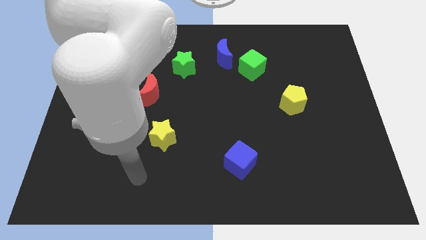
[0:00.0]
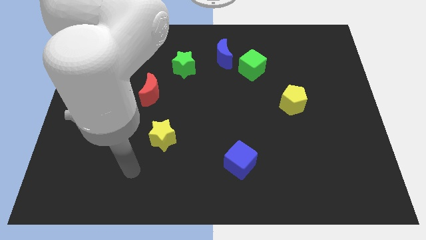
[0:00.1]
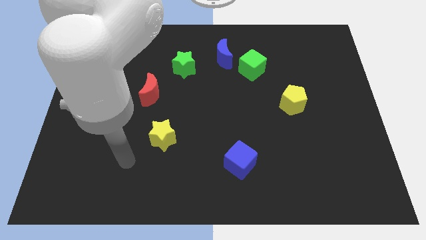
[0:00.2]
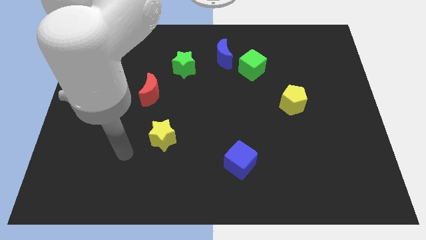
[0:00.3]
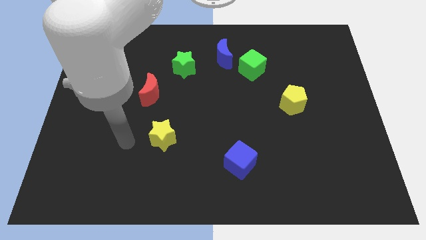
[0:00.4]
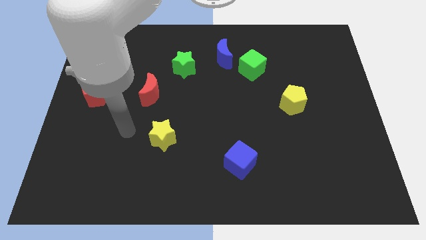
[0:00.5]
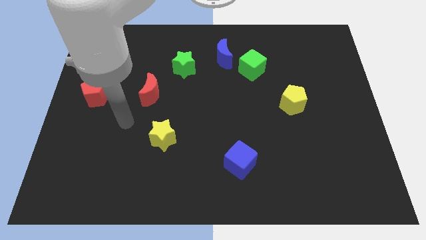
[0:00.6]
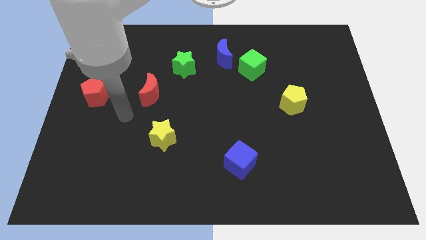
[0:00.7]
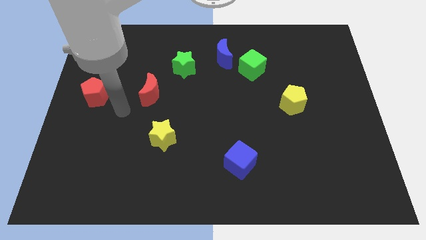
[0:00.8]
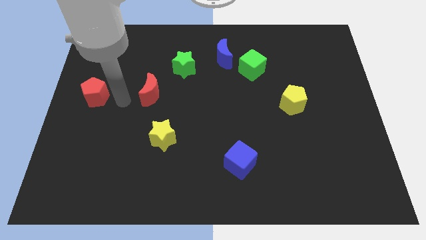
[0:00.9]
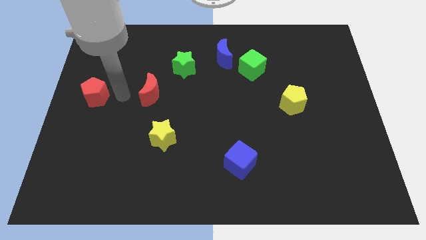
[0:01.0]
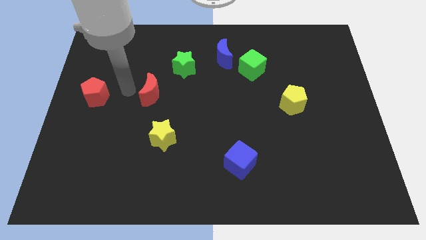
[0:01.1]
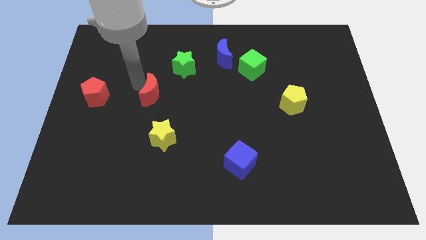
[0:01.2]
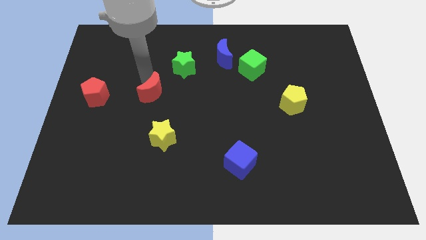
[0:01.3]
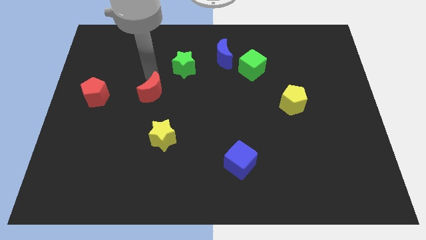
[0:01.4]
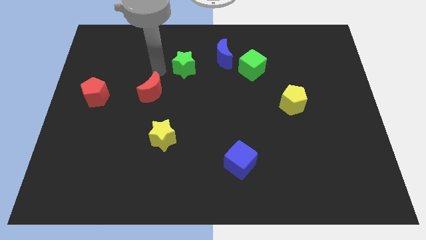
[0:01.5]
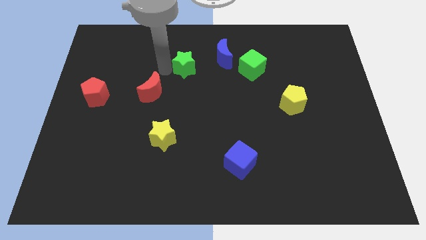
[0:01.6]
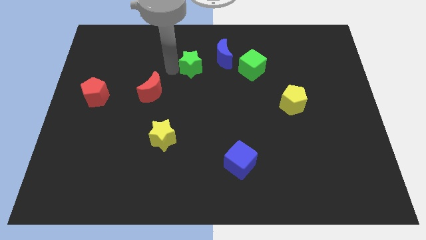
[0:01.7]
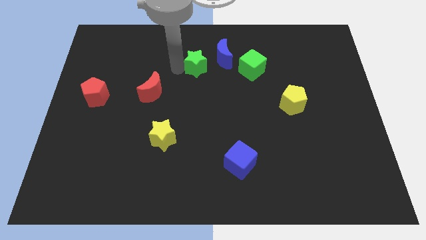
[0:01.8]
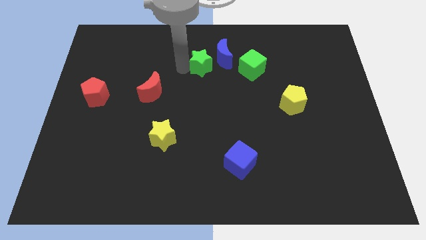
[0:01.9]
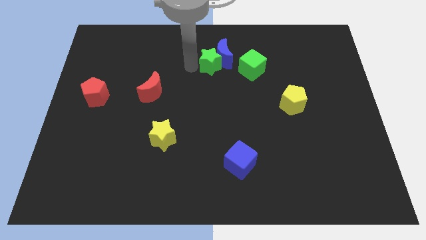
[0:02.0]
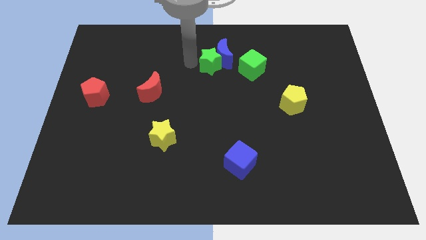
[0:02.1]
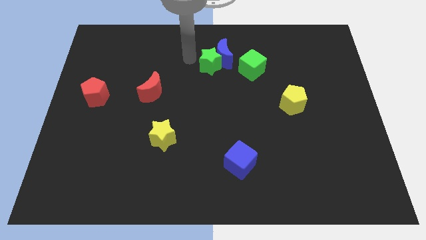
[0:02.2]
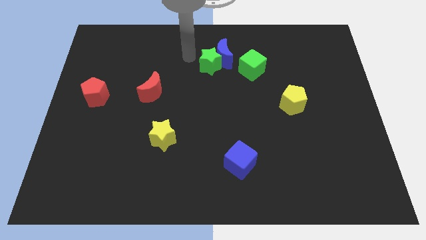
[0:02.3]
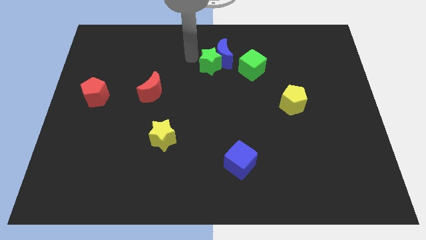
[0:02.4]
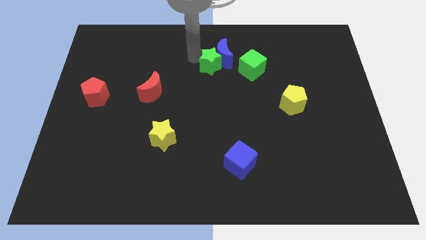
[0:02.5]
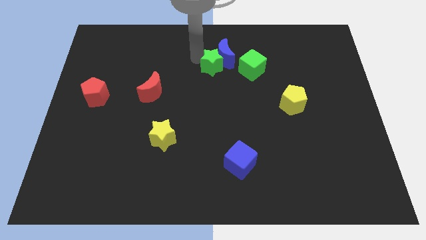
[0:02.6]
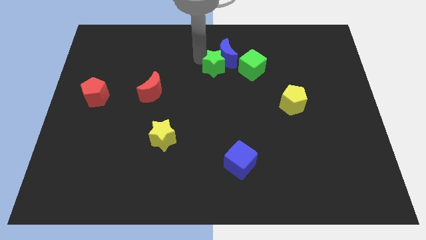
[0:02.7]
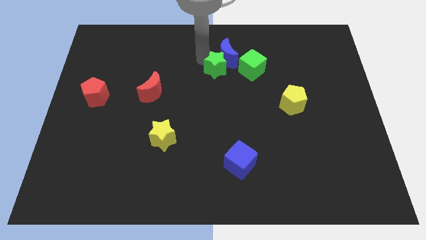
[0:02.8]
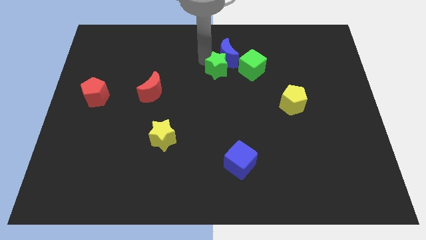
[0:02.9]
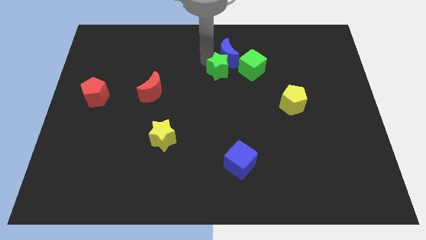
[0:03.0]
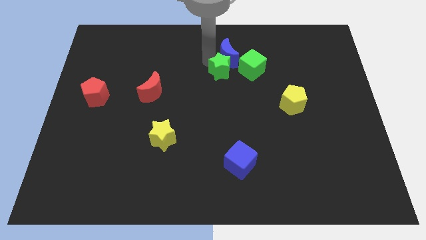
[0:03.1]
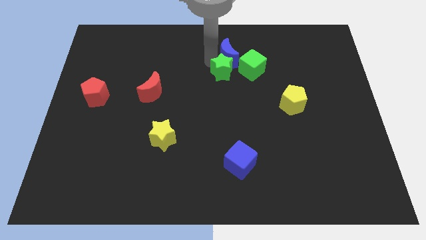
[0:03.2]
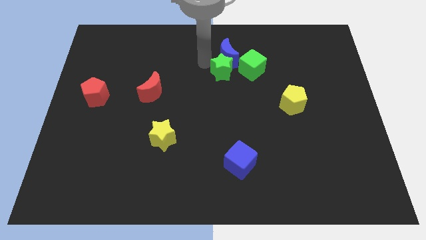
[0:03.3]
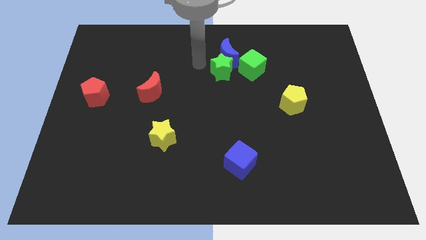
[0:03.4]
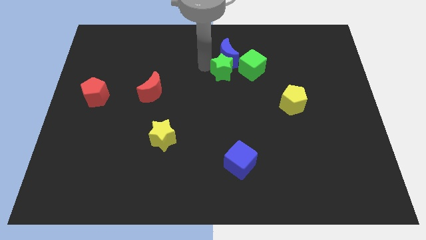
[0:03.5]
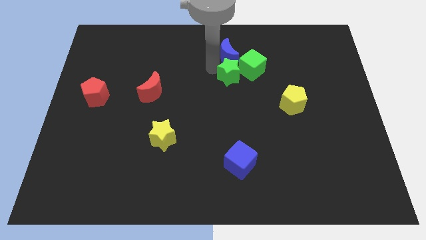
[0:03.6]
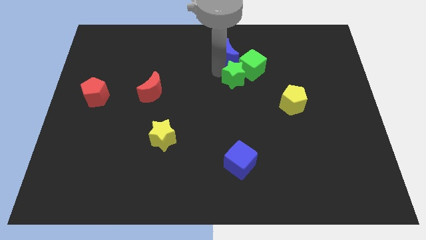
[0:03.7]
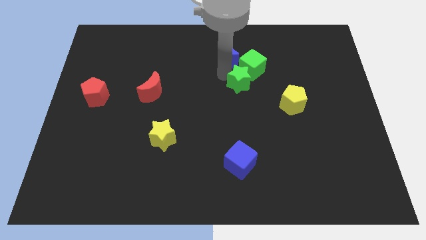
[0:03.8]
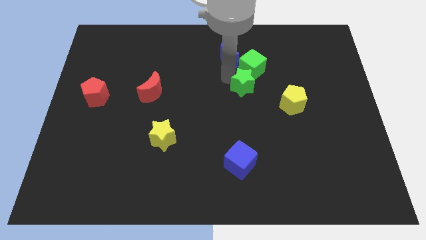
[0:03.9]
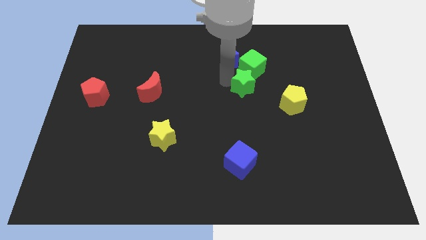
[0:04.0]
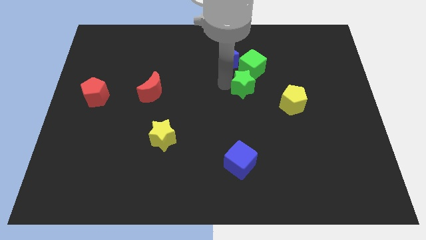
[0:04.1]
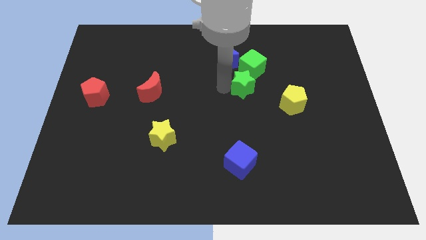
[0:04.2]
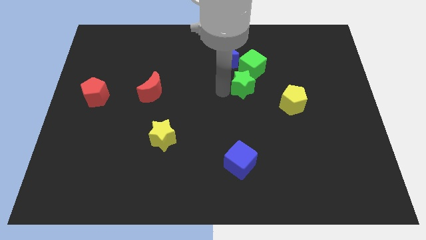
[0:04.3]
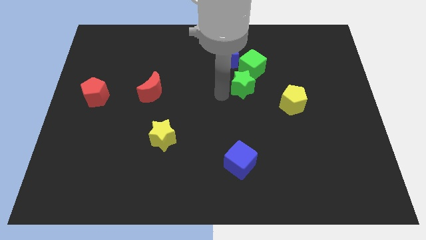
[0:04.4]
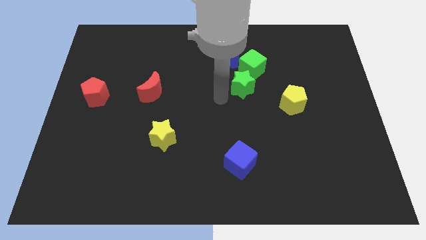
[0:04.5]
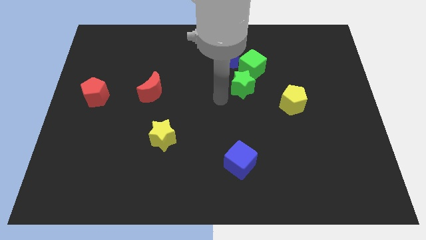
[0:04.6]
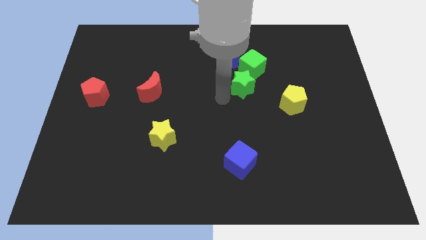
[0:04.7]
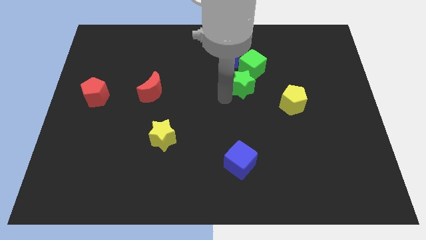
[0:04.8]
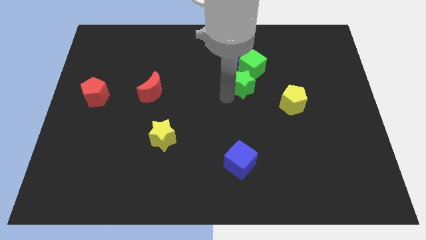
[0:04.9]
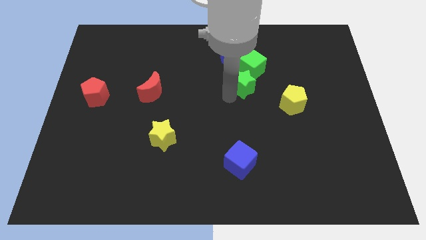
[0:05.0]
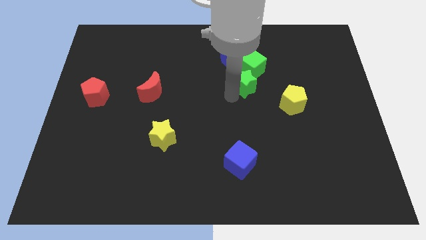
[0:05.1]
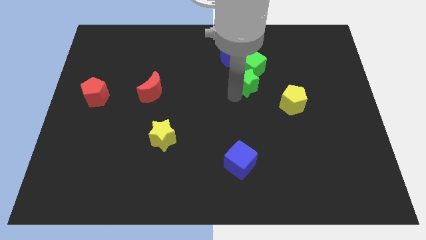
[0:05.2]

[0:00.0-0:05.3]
slide the green star diagonally up and to the left of the yellow pentagon

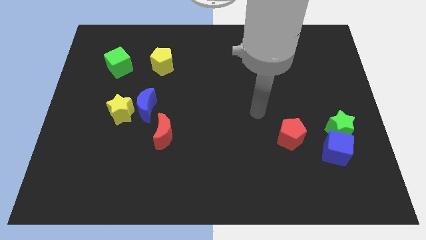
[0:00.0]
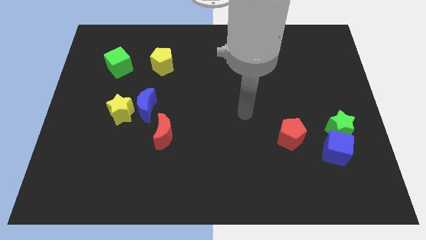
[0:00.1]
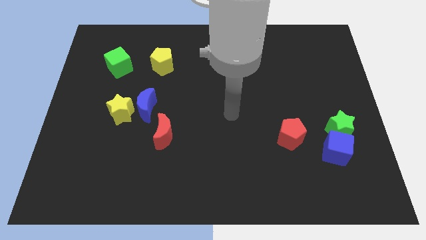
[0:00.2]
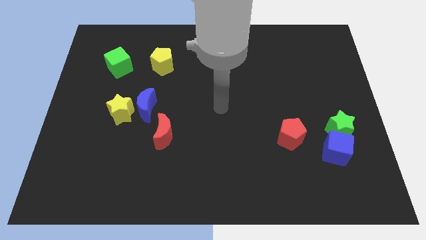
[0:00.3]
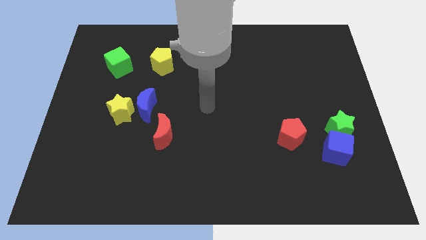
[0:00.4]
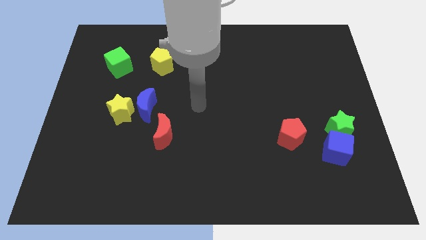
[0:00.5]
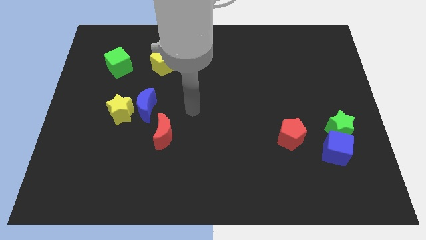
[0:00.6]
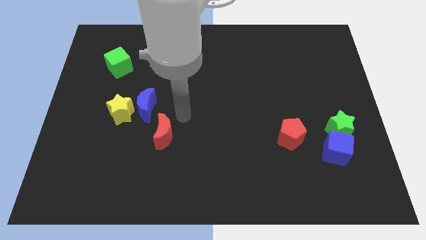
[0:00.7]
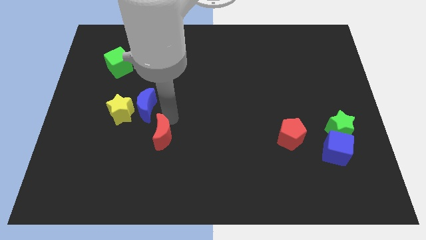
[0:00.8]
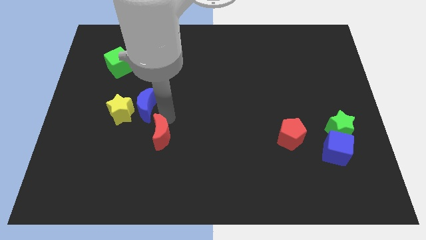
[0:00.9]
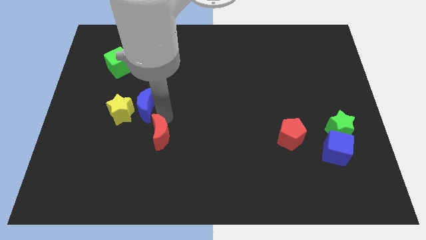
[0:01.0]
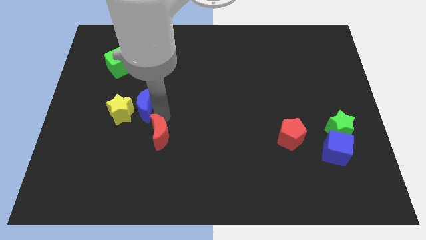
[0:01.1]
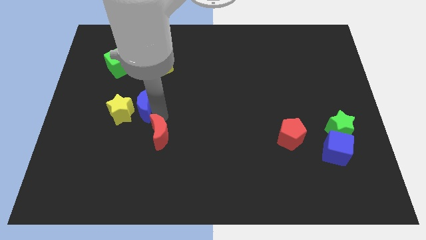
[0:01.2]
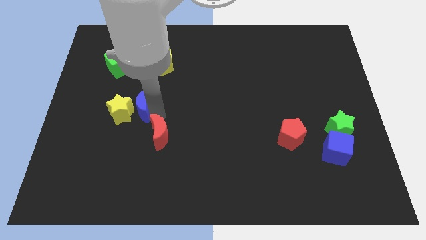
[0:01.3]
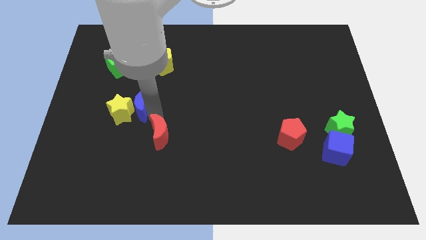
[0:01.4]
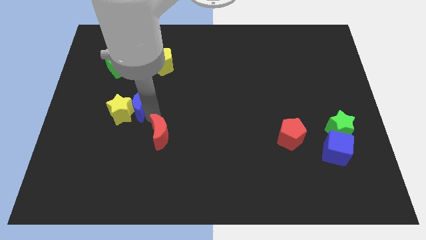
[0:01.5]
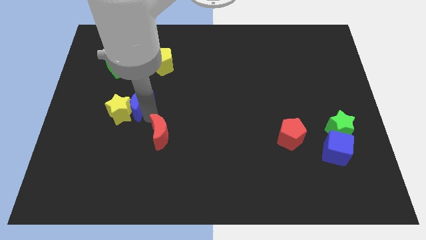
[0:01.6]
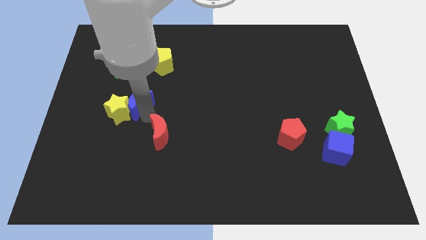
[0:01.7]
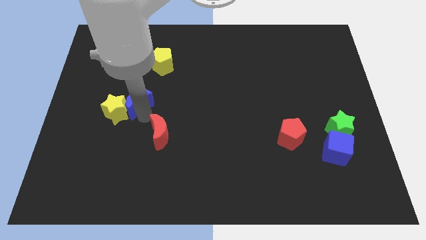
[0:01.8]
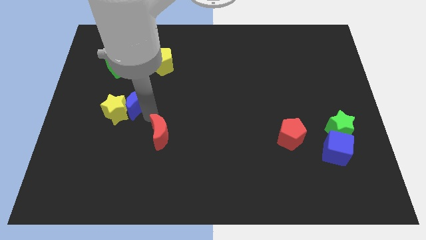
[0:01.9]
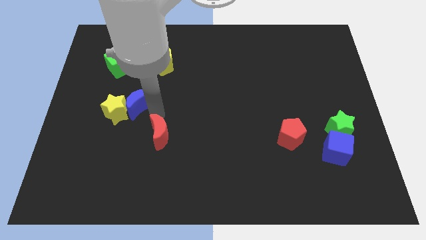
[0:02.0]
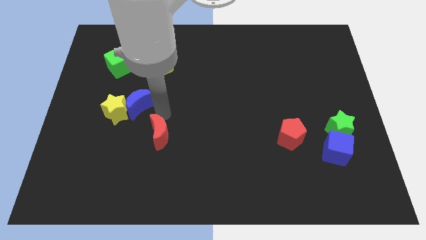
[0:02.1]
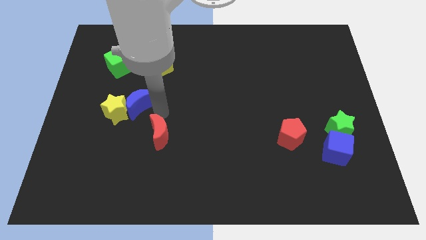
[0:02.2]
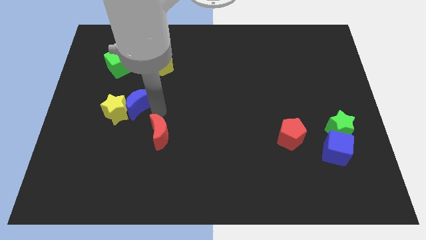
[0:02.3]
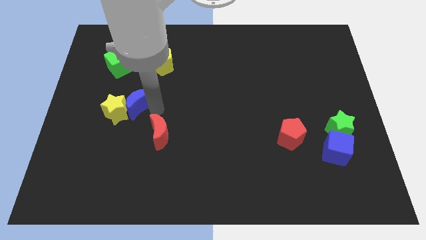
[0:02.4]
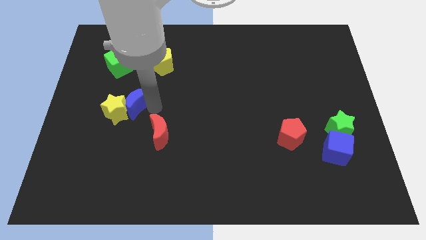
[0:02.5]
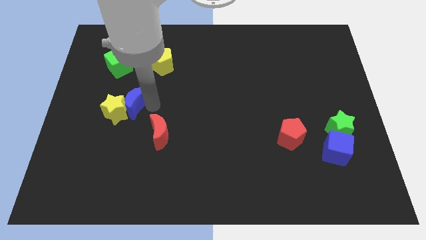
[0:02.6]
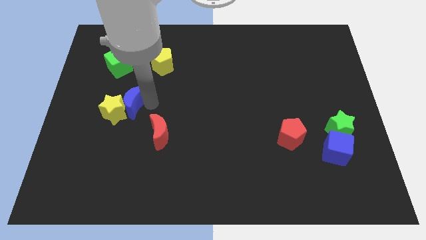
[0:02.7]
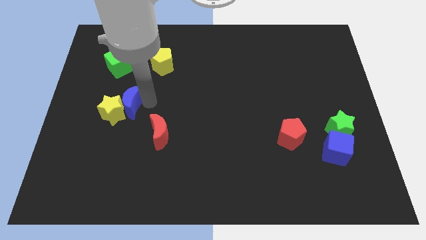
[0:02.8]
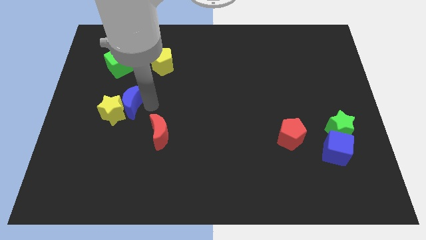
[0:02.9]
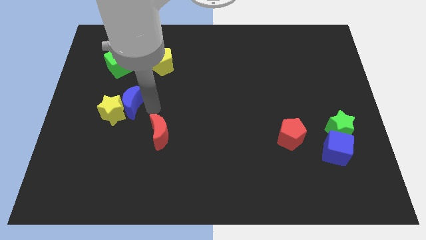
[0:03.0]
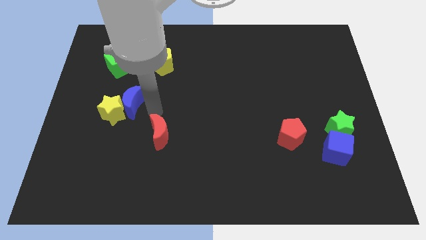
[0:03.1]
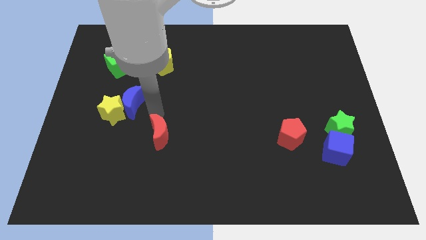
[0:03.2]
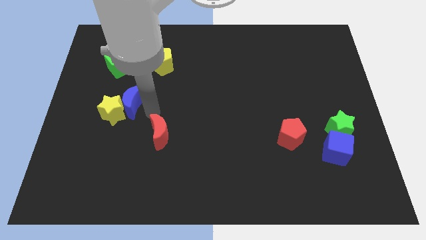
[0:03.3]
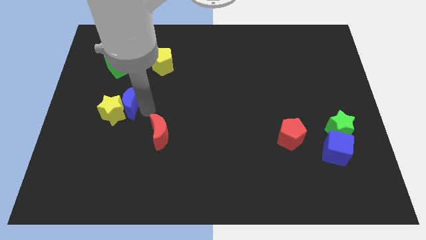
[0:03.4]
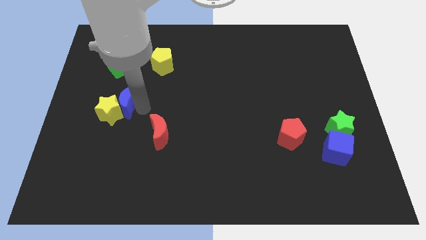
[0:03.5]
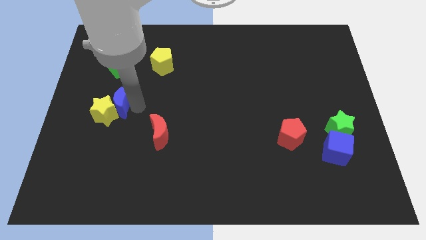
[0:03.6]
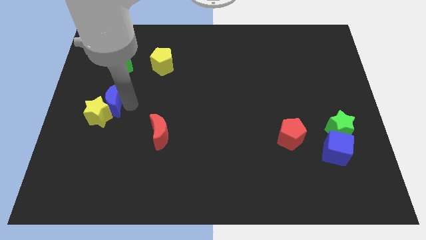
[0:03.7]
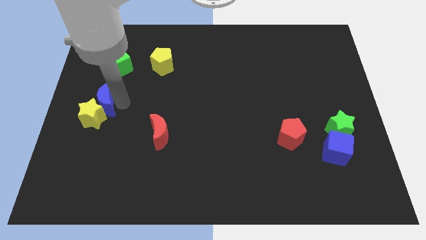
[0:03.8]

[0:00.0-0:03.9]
put the blue moon diagonally up and to the left of the yellow star
